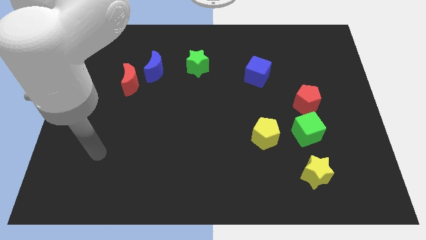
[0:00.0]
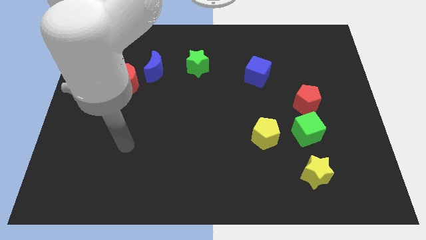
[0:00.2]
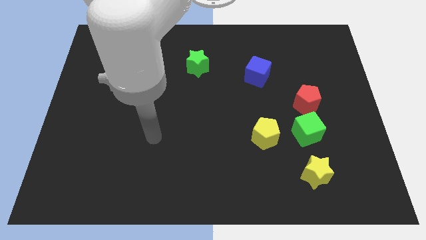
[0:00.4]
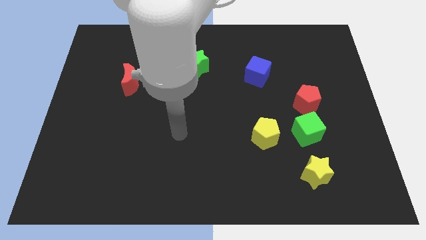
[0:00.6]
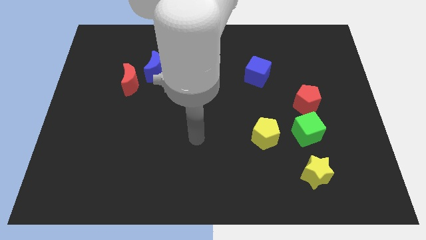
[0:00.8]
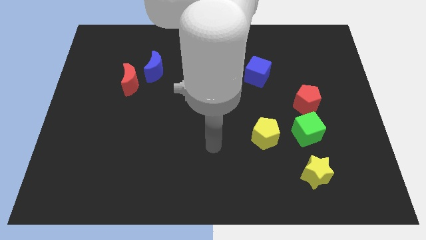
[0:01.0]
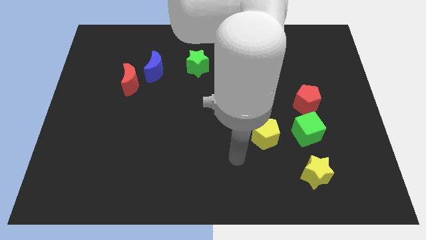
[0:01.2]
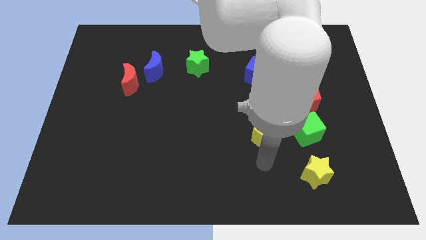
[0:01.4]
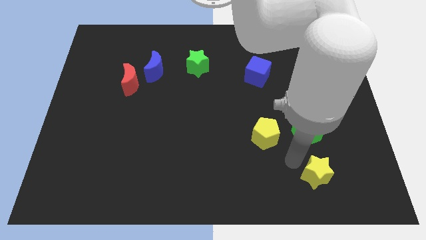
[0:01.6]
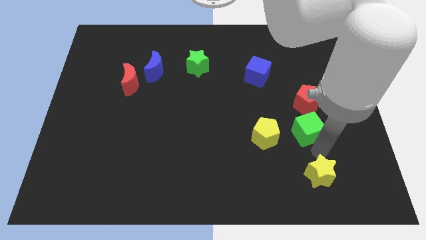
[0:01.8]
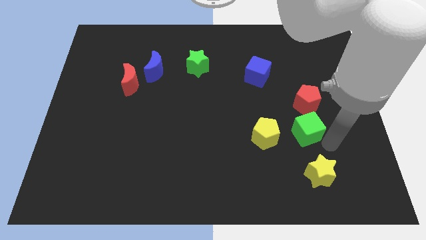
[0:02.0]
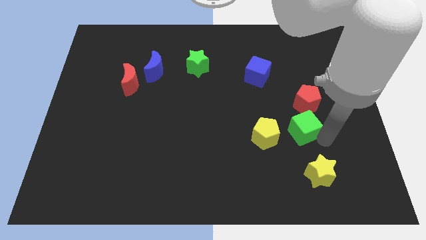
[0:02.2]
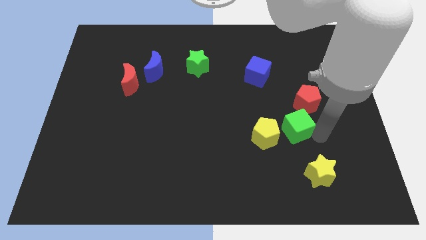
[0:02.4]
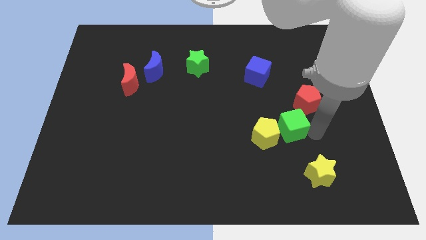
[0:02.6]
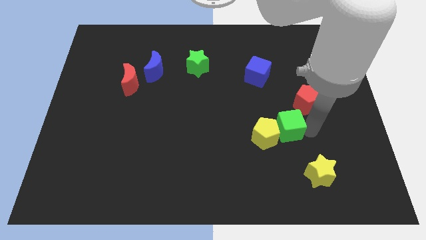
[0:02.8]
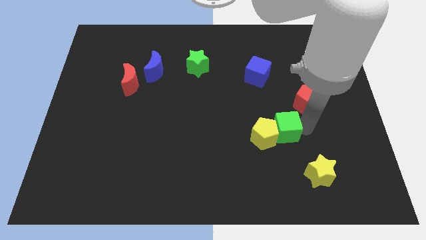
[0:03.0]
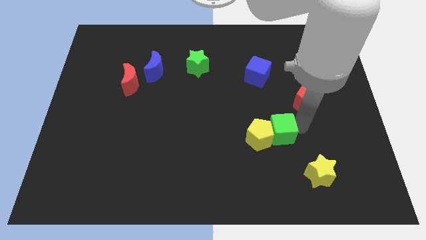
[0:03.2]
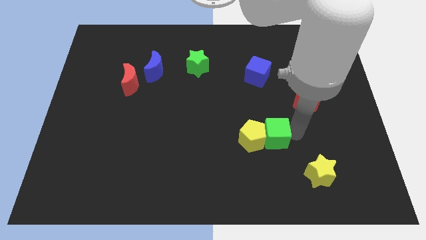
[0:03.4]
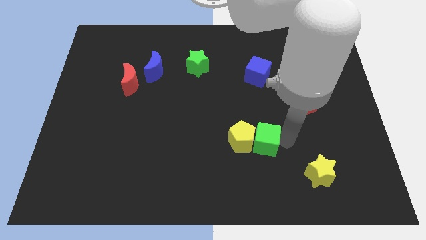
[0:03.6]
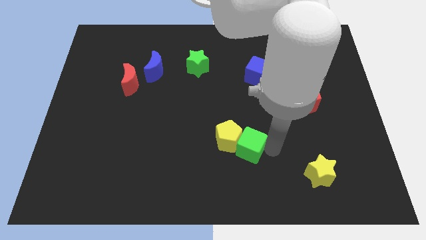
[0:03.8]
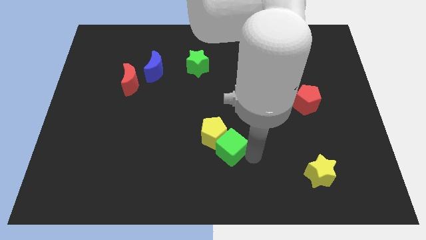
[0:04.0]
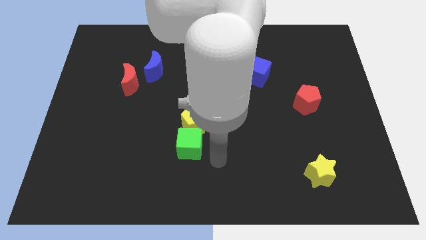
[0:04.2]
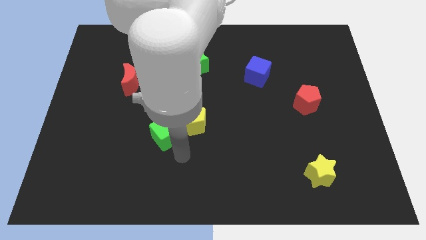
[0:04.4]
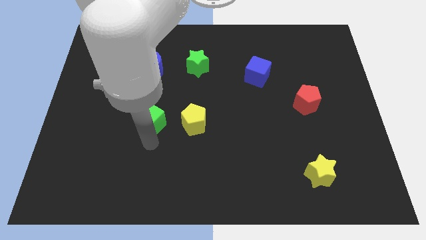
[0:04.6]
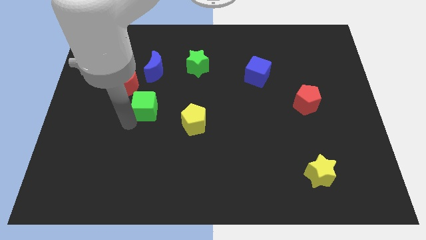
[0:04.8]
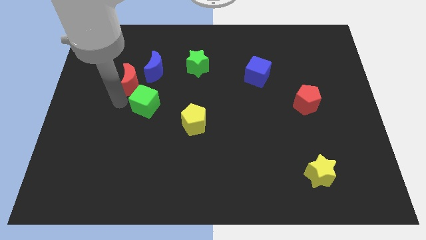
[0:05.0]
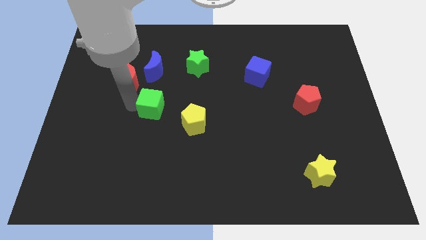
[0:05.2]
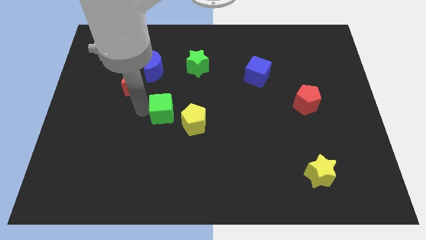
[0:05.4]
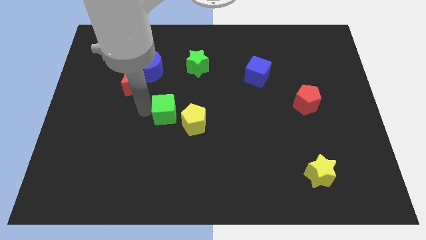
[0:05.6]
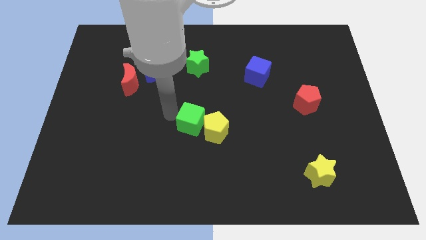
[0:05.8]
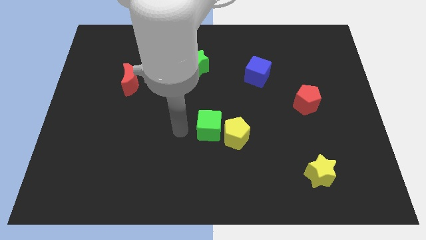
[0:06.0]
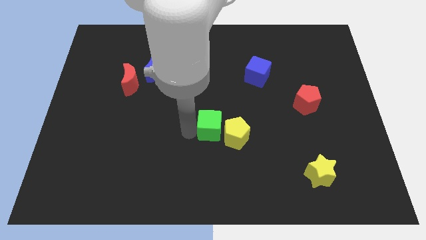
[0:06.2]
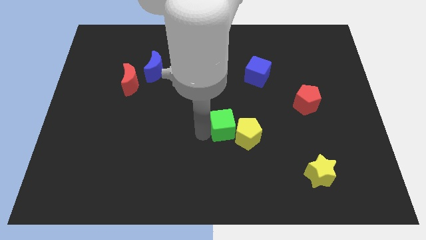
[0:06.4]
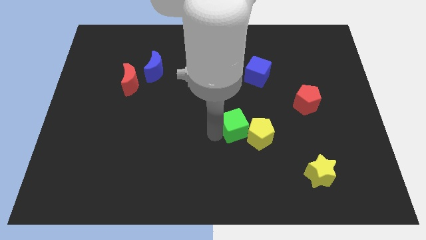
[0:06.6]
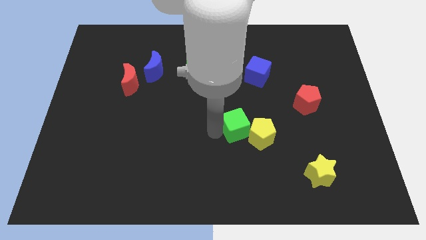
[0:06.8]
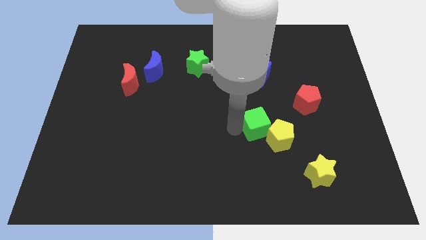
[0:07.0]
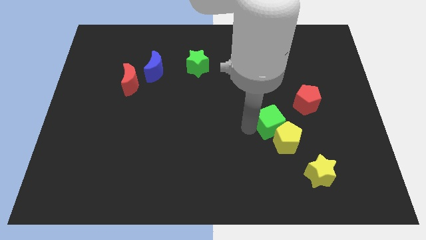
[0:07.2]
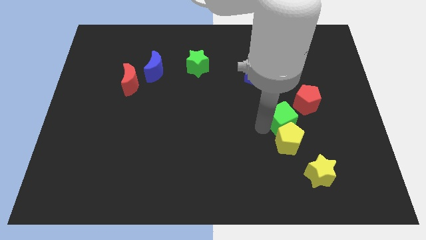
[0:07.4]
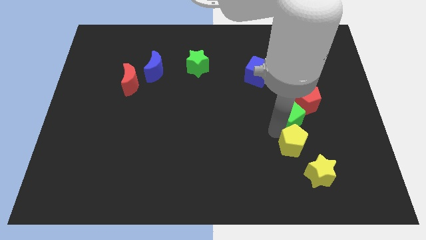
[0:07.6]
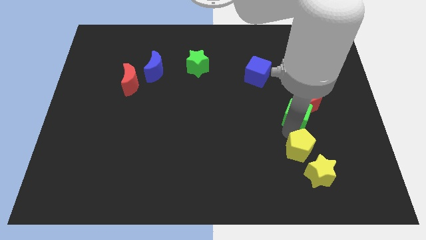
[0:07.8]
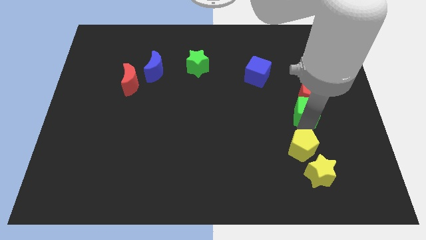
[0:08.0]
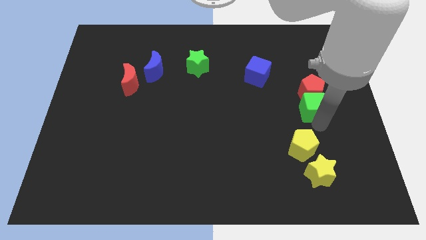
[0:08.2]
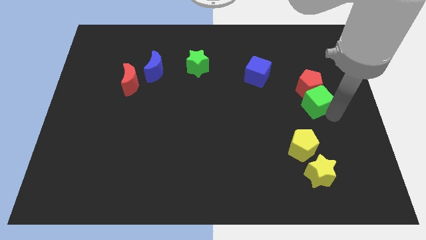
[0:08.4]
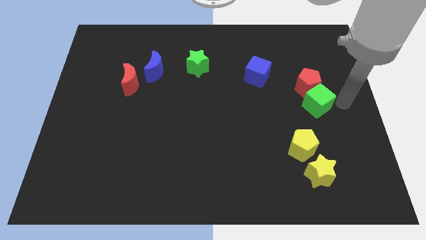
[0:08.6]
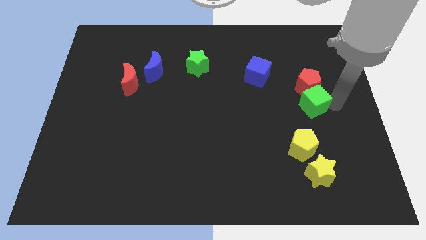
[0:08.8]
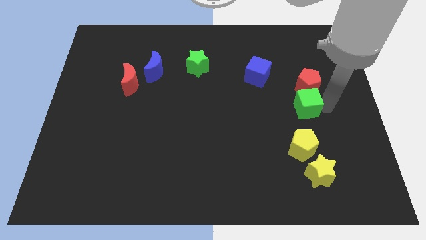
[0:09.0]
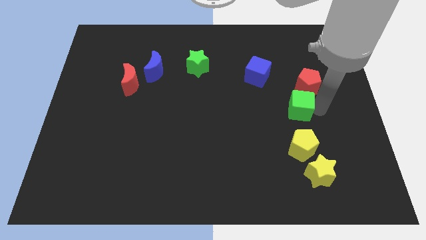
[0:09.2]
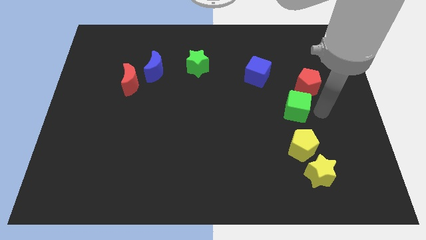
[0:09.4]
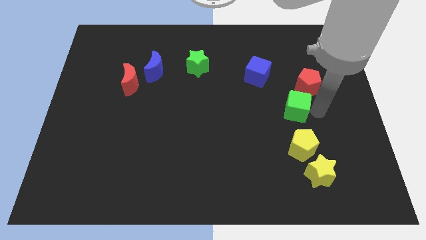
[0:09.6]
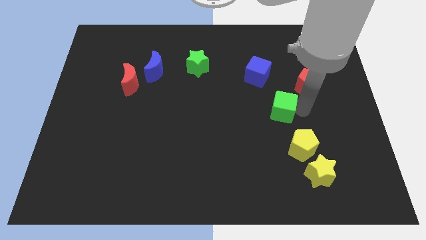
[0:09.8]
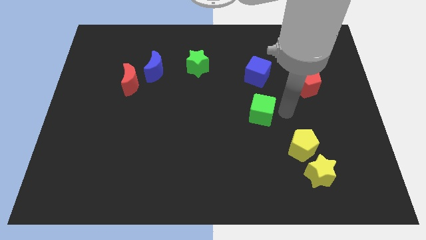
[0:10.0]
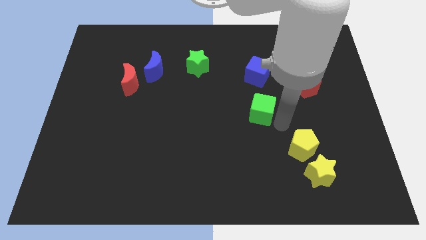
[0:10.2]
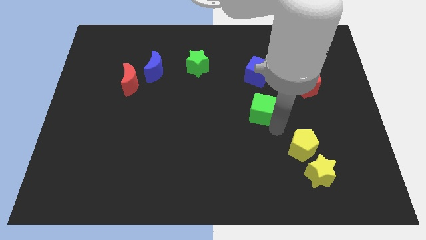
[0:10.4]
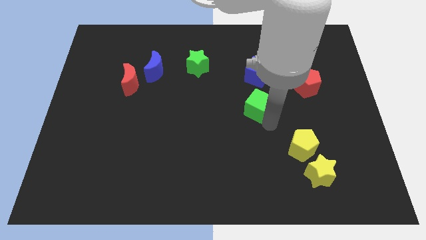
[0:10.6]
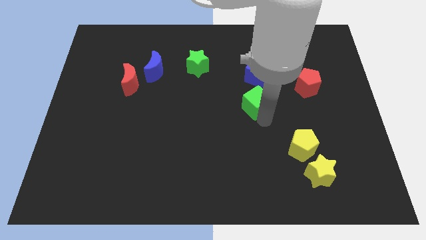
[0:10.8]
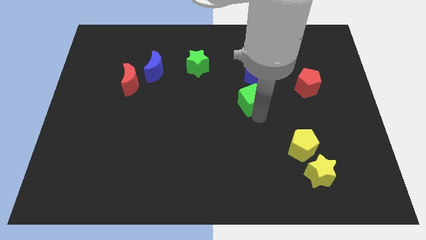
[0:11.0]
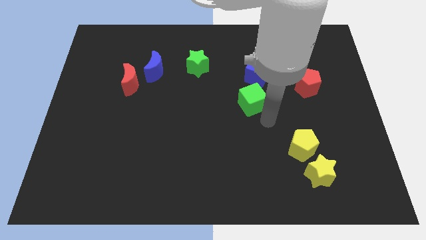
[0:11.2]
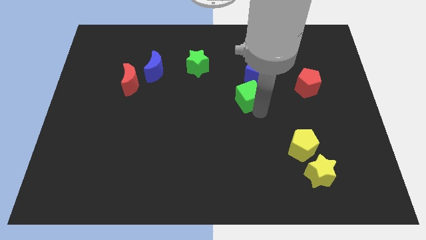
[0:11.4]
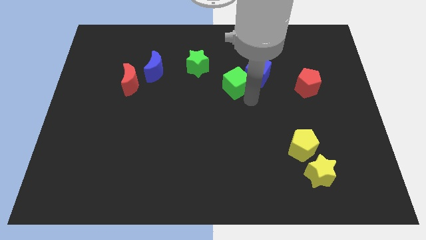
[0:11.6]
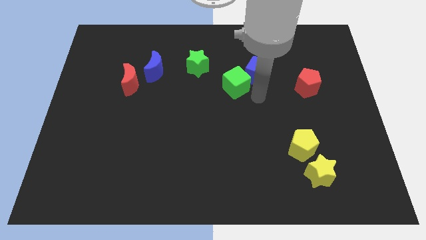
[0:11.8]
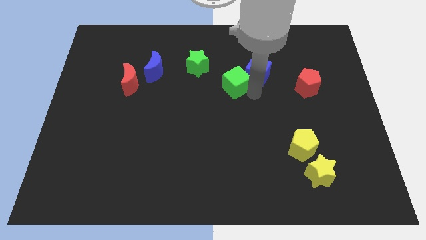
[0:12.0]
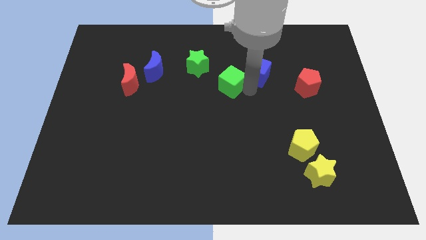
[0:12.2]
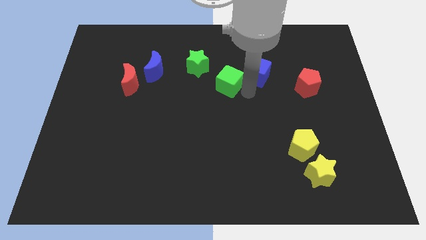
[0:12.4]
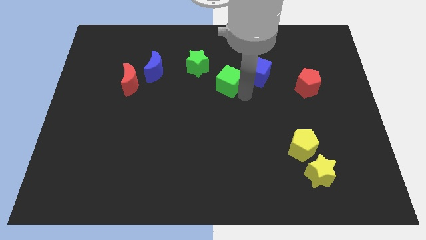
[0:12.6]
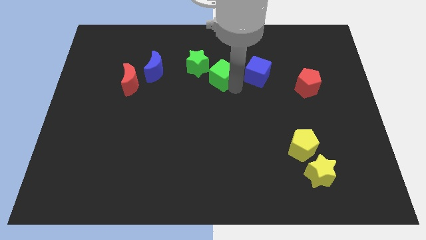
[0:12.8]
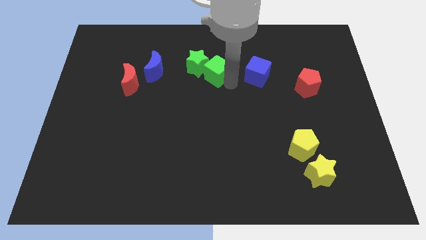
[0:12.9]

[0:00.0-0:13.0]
move the green cube next to the green star
